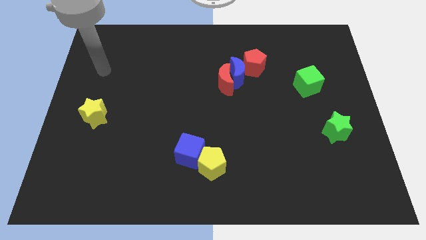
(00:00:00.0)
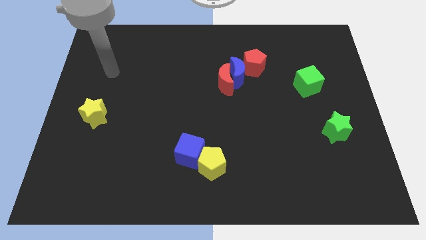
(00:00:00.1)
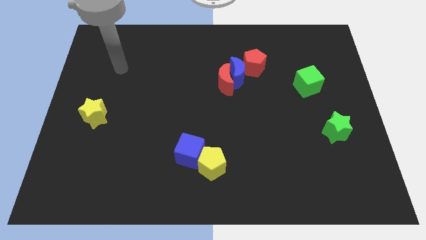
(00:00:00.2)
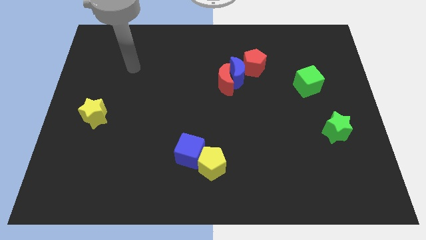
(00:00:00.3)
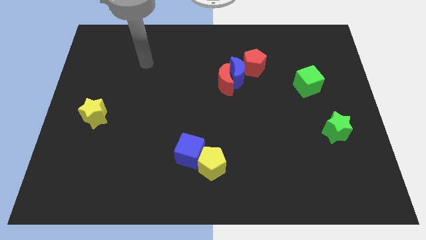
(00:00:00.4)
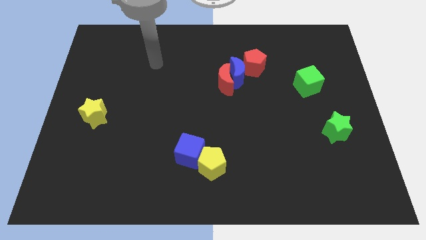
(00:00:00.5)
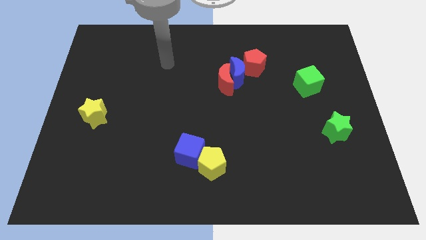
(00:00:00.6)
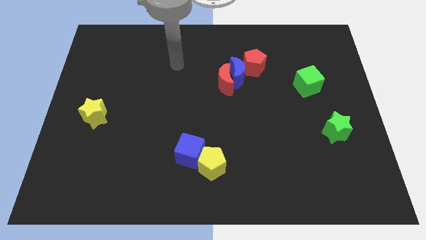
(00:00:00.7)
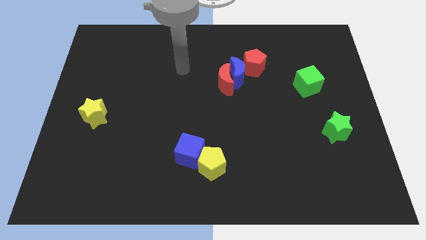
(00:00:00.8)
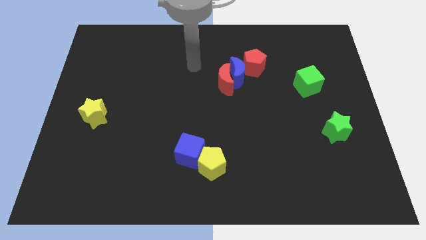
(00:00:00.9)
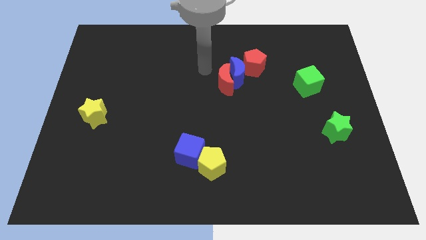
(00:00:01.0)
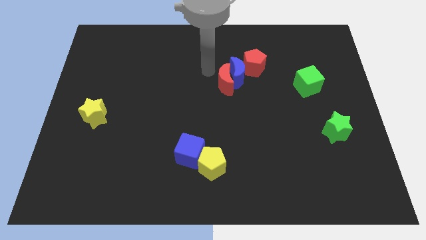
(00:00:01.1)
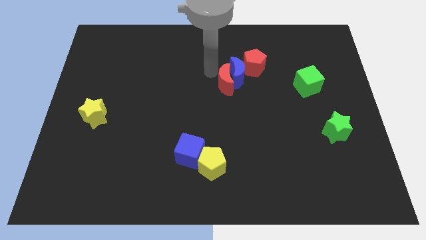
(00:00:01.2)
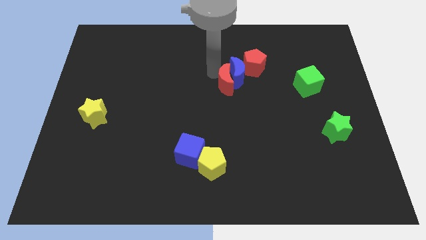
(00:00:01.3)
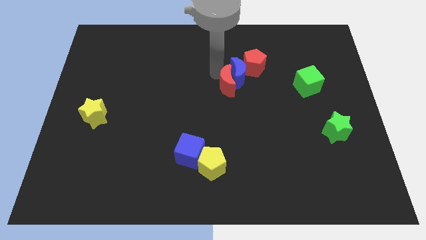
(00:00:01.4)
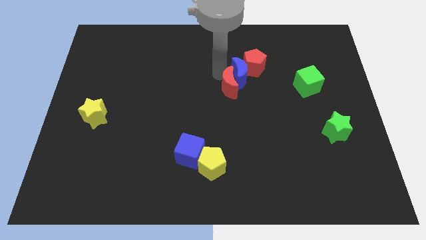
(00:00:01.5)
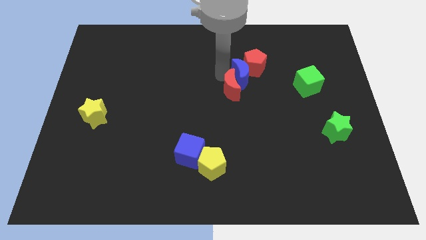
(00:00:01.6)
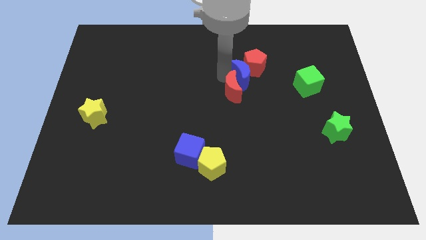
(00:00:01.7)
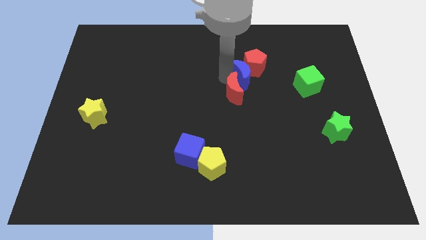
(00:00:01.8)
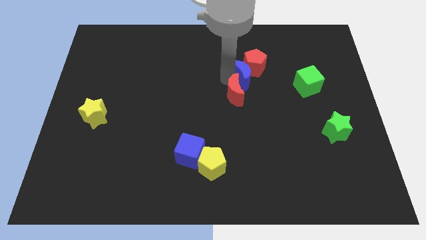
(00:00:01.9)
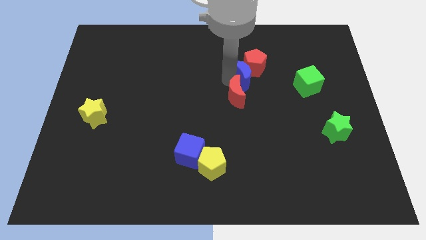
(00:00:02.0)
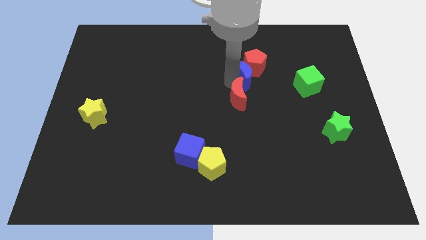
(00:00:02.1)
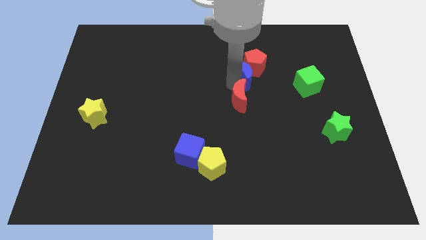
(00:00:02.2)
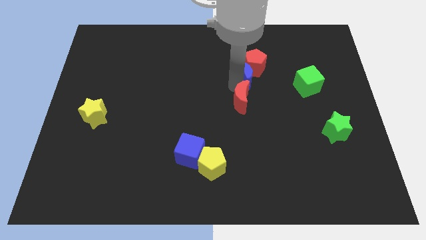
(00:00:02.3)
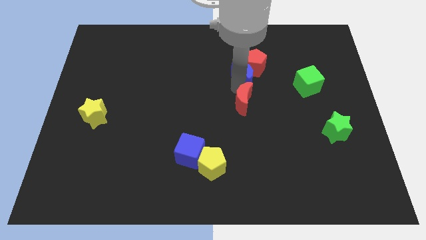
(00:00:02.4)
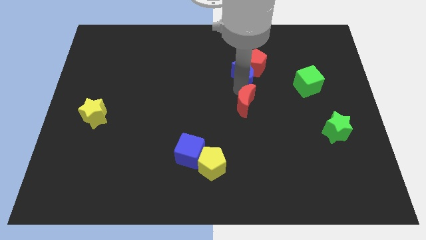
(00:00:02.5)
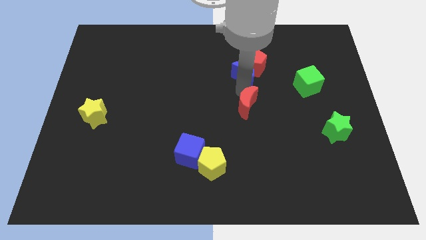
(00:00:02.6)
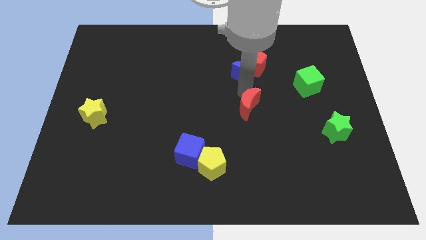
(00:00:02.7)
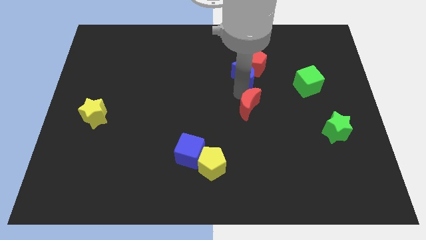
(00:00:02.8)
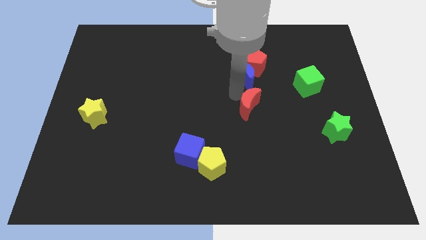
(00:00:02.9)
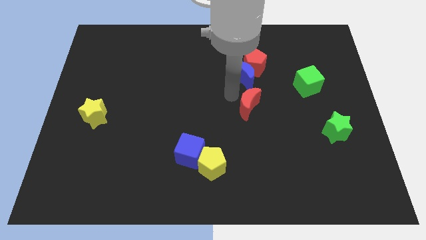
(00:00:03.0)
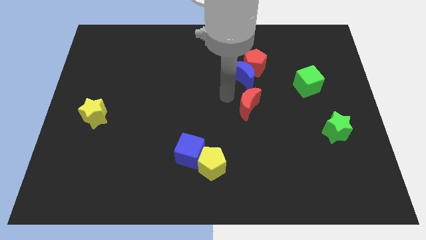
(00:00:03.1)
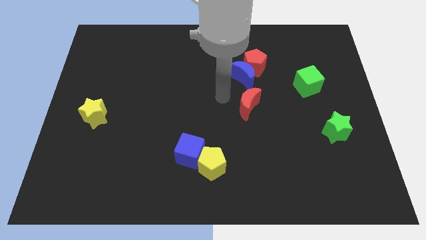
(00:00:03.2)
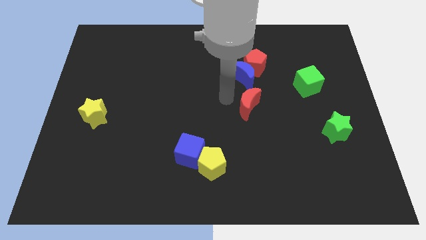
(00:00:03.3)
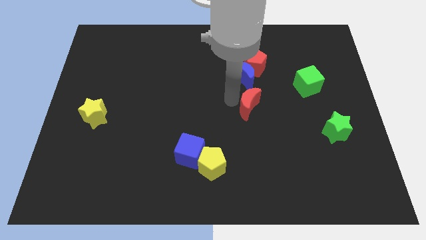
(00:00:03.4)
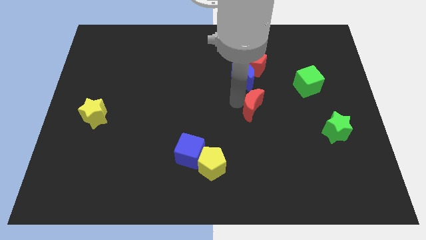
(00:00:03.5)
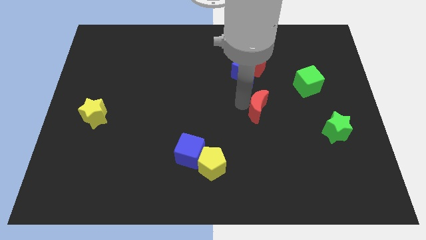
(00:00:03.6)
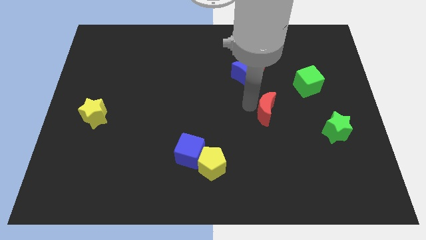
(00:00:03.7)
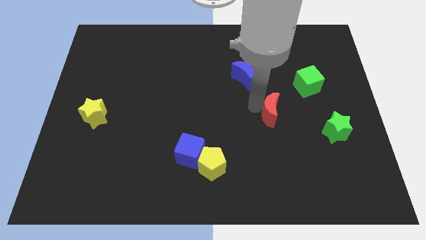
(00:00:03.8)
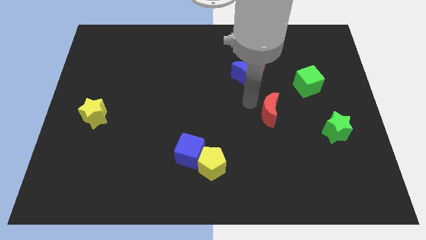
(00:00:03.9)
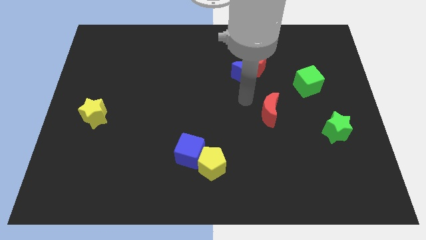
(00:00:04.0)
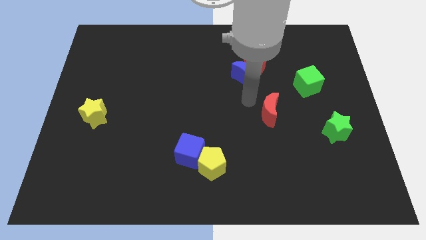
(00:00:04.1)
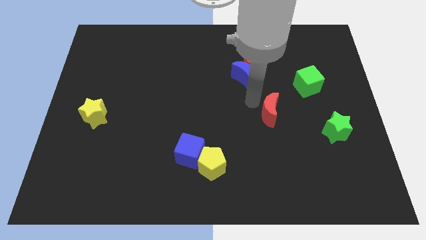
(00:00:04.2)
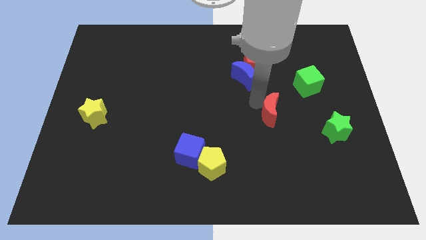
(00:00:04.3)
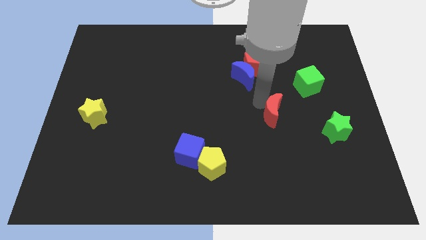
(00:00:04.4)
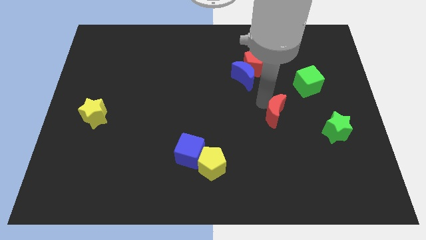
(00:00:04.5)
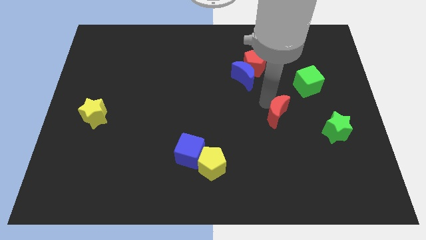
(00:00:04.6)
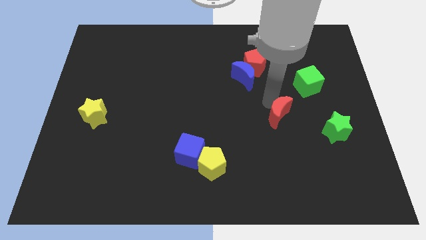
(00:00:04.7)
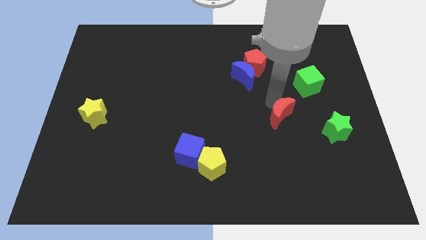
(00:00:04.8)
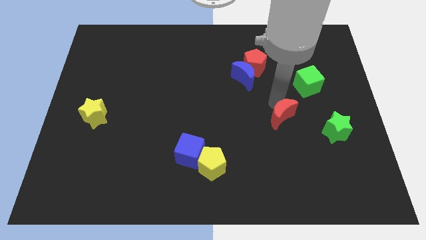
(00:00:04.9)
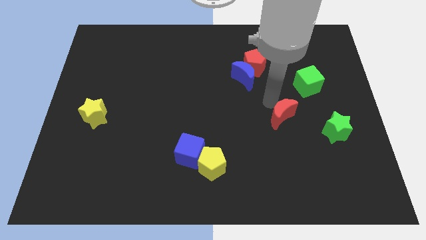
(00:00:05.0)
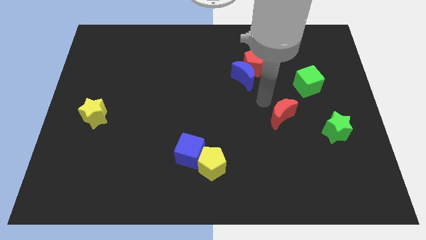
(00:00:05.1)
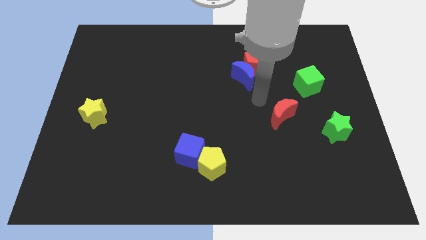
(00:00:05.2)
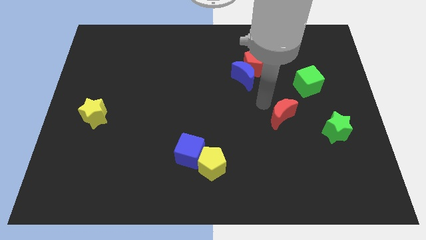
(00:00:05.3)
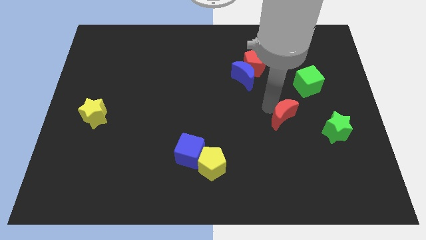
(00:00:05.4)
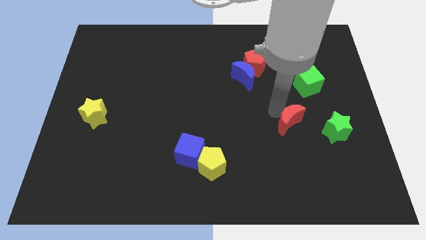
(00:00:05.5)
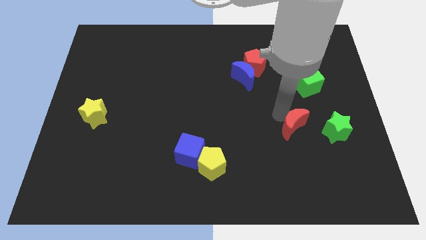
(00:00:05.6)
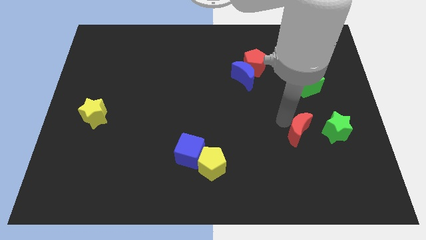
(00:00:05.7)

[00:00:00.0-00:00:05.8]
move the red moon to the bottom of the green cube

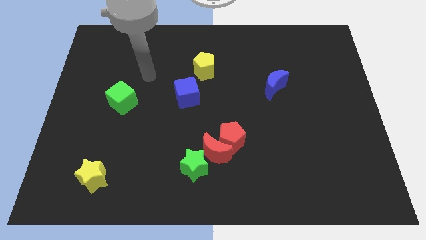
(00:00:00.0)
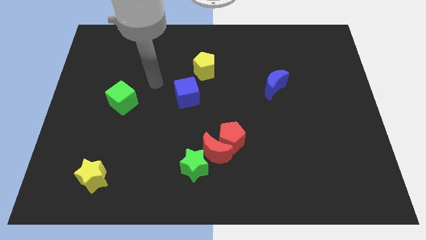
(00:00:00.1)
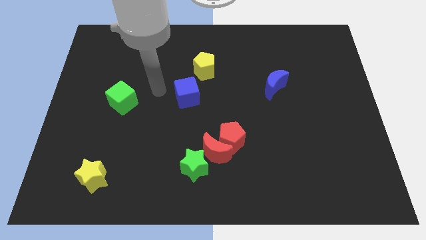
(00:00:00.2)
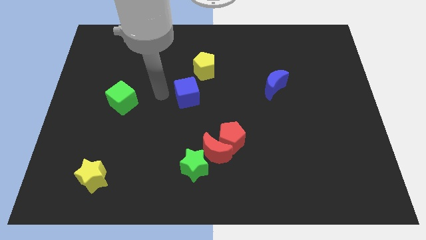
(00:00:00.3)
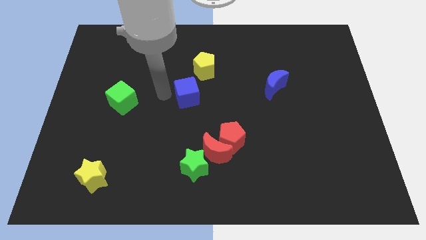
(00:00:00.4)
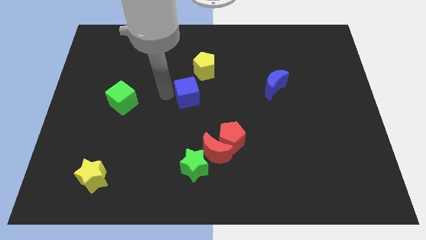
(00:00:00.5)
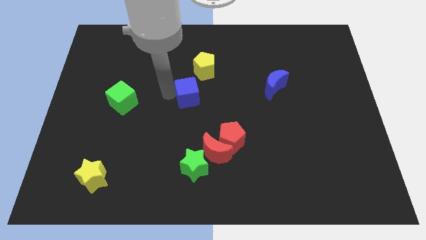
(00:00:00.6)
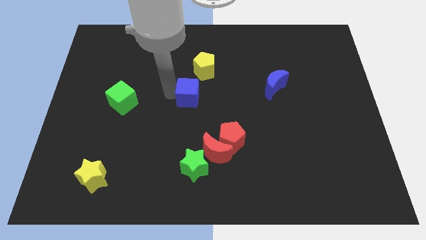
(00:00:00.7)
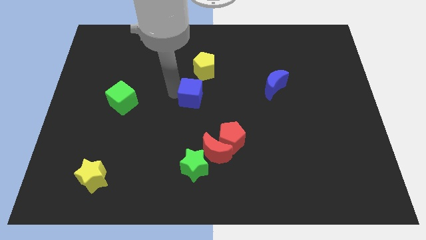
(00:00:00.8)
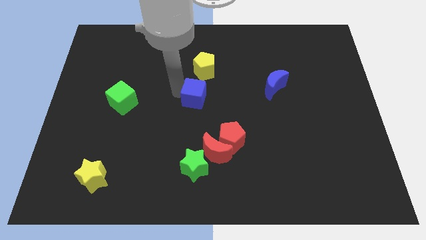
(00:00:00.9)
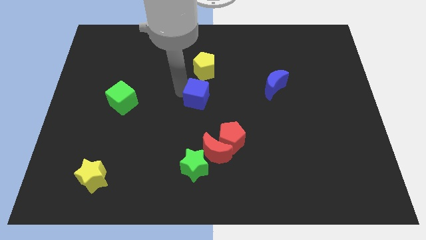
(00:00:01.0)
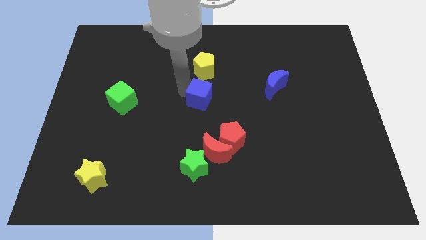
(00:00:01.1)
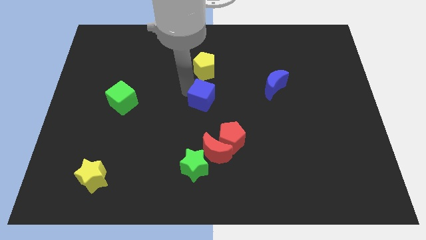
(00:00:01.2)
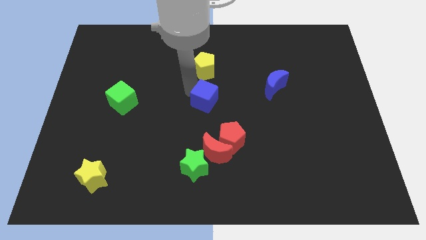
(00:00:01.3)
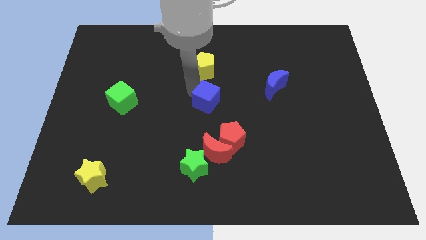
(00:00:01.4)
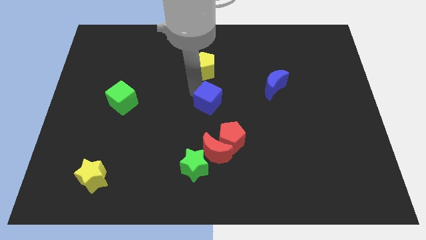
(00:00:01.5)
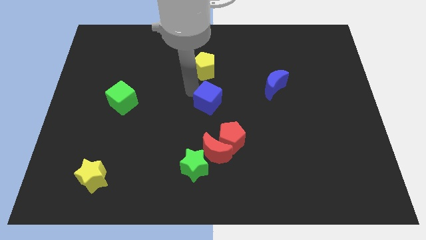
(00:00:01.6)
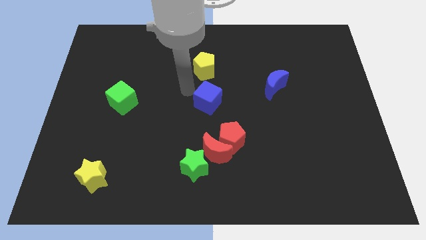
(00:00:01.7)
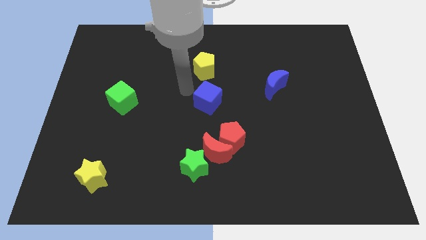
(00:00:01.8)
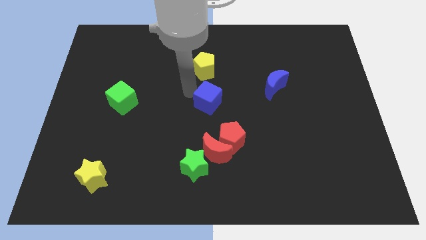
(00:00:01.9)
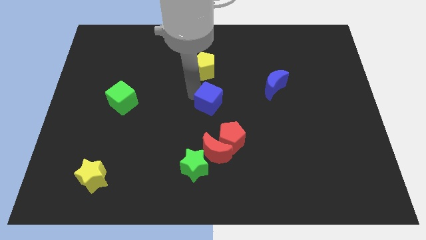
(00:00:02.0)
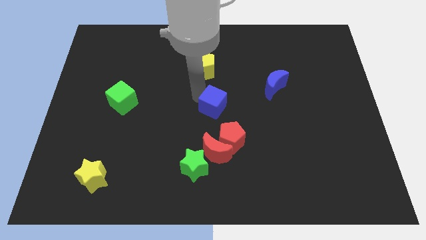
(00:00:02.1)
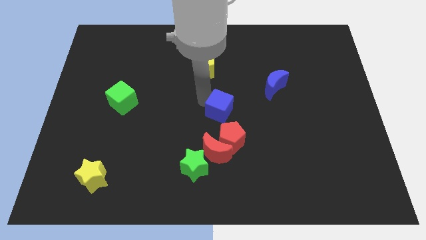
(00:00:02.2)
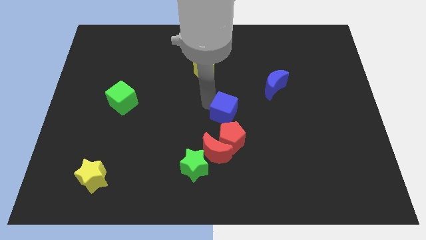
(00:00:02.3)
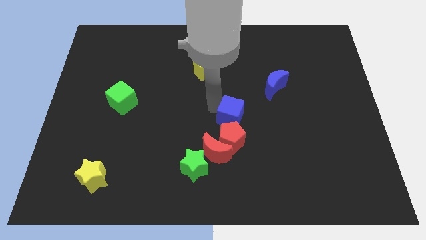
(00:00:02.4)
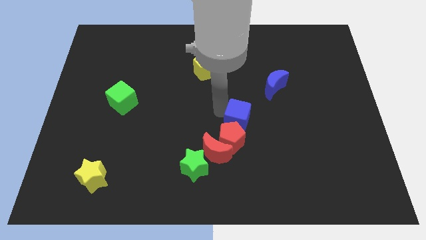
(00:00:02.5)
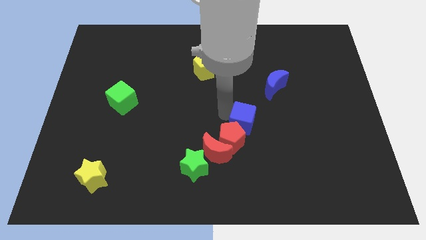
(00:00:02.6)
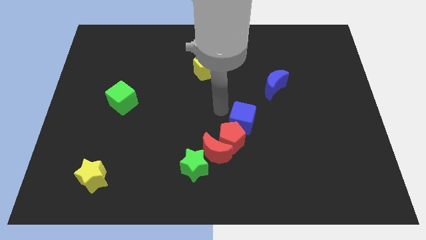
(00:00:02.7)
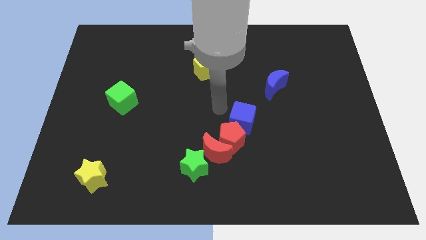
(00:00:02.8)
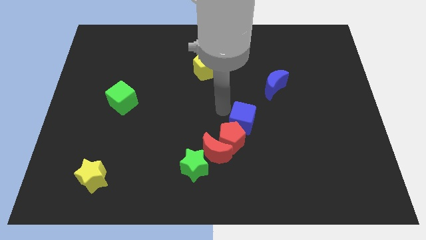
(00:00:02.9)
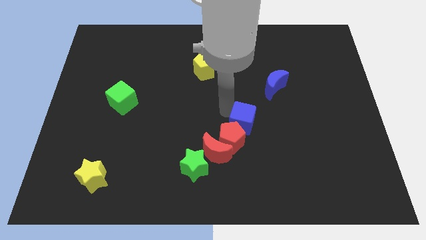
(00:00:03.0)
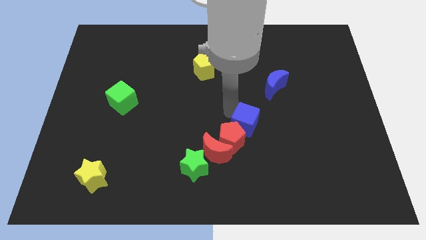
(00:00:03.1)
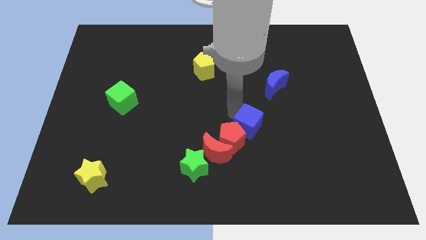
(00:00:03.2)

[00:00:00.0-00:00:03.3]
put the blue cube to the right side of the red pentagon
